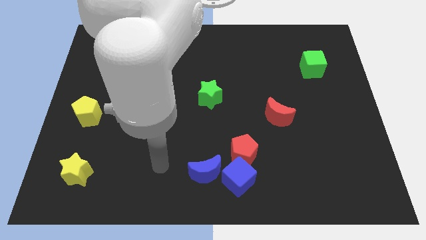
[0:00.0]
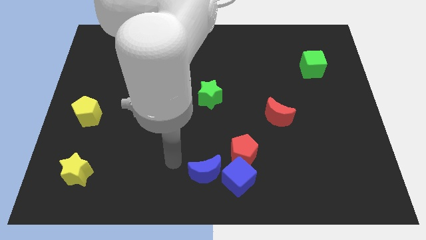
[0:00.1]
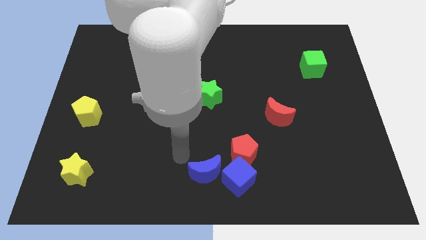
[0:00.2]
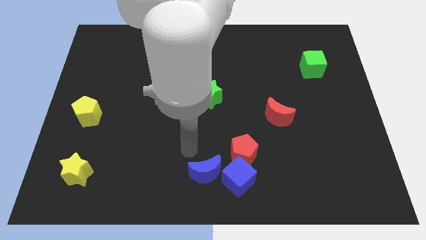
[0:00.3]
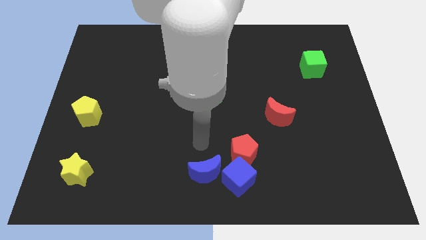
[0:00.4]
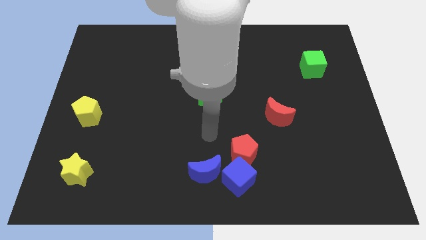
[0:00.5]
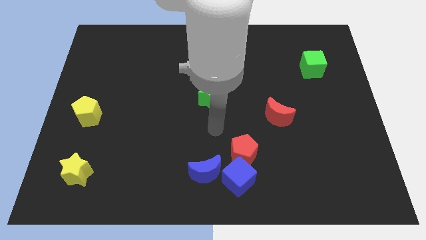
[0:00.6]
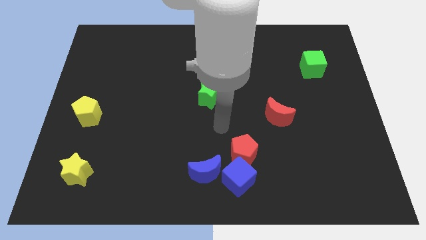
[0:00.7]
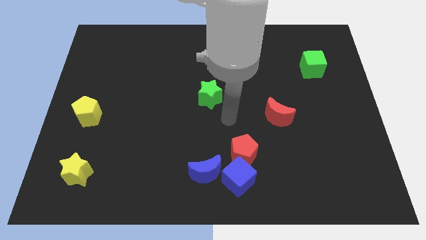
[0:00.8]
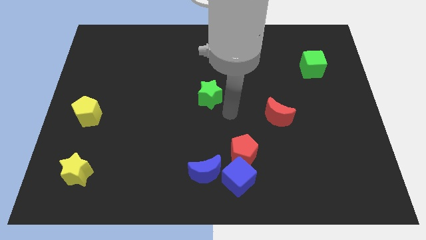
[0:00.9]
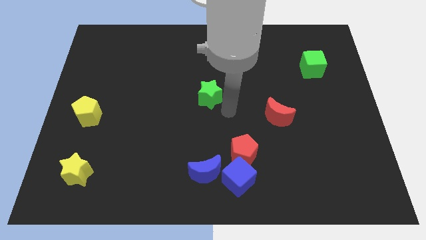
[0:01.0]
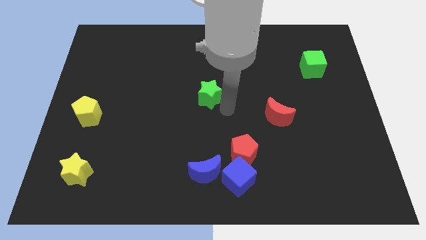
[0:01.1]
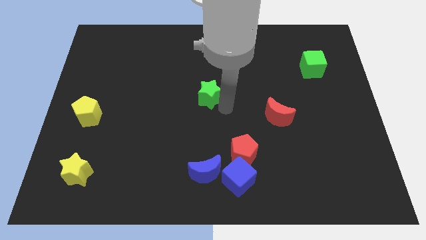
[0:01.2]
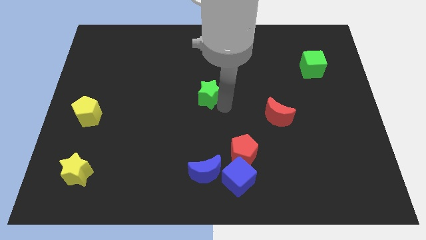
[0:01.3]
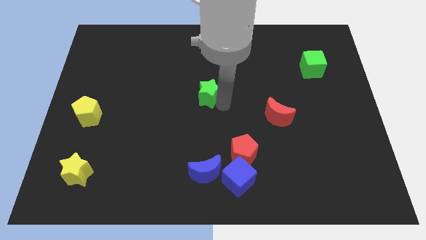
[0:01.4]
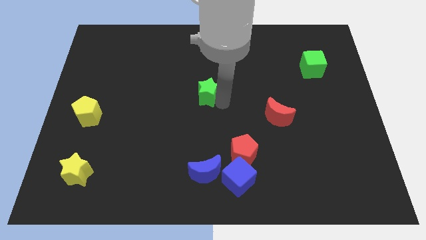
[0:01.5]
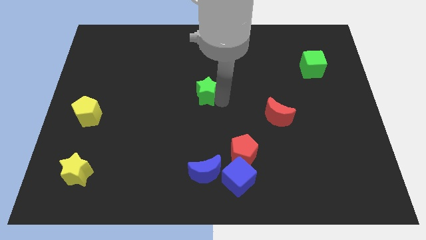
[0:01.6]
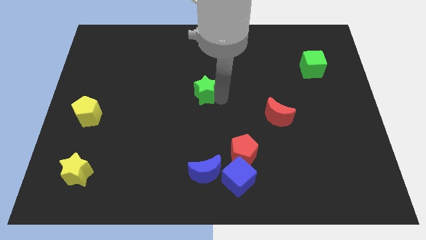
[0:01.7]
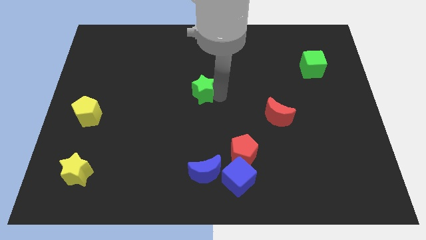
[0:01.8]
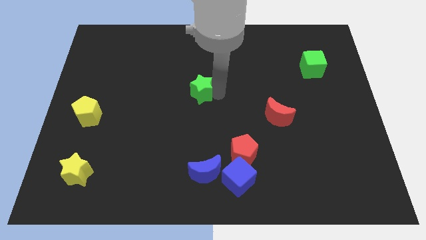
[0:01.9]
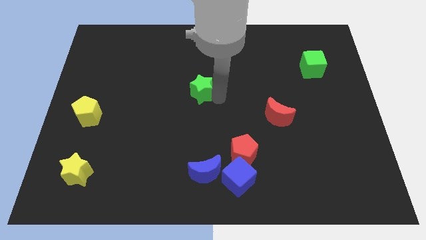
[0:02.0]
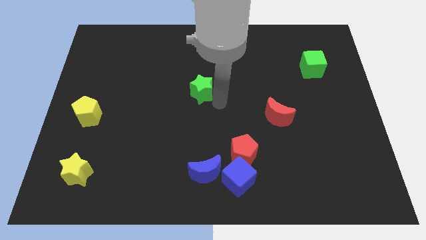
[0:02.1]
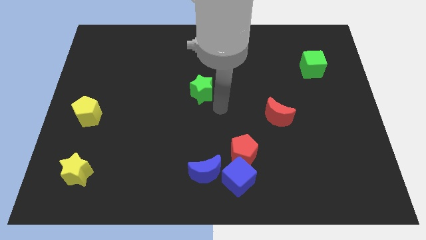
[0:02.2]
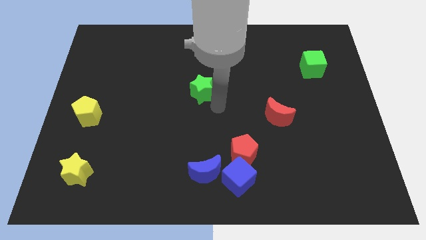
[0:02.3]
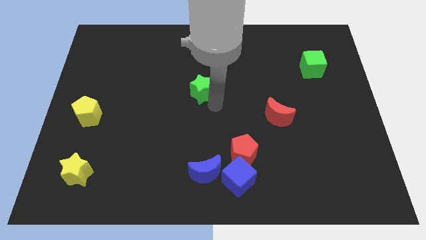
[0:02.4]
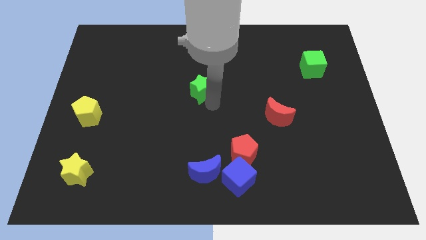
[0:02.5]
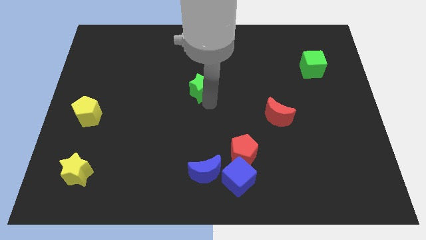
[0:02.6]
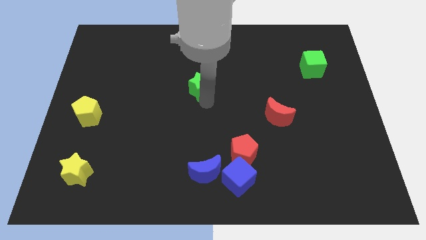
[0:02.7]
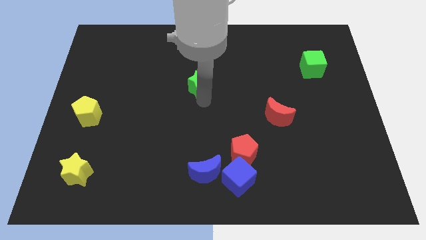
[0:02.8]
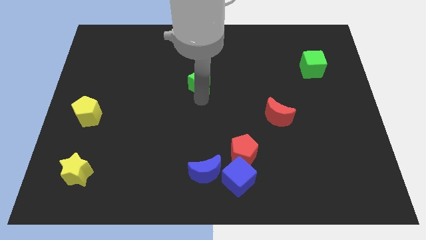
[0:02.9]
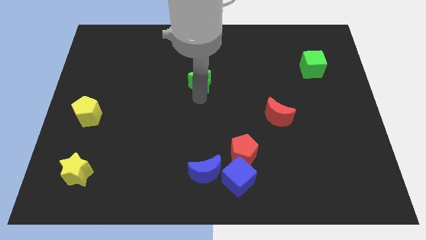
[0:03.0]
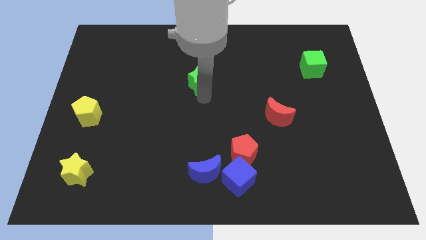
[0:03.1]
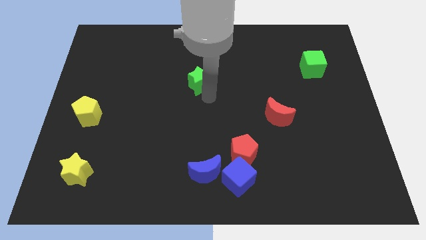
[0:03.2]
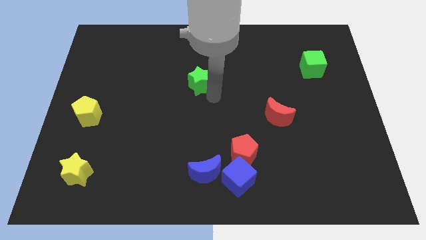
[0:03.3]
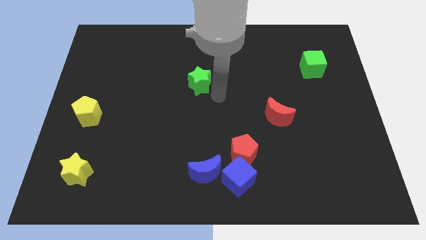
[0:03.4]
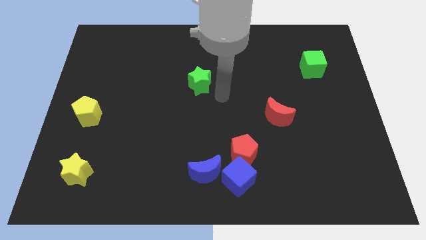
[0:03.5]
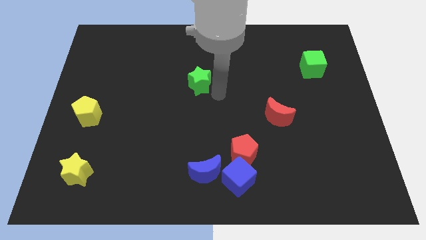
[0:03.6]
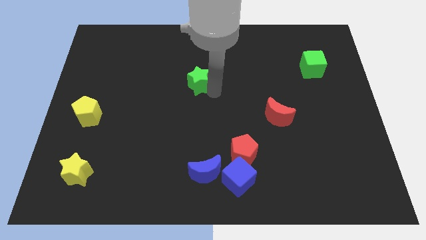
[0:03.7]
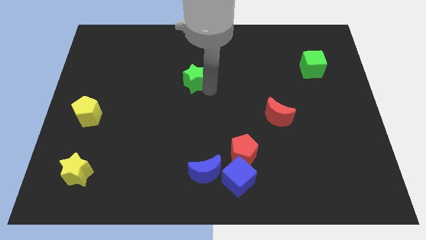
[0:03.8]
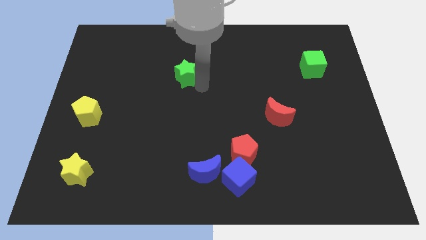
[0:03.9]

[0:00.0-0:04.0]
slightly push the green star up and then left

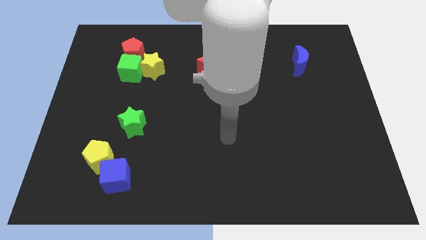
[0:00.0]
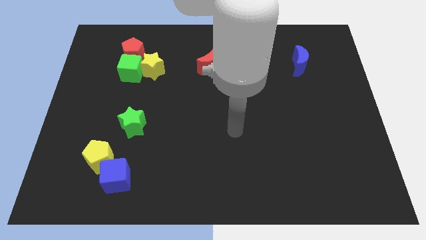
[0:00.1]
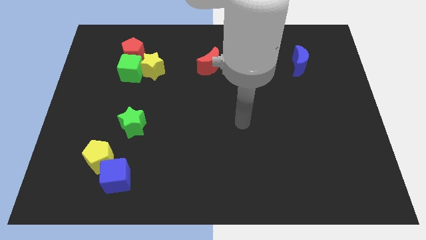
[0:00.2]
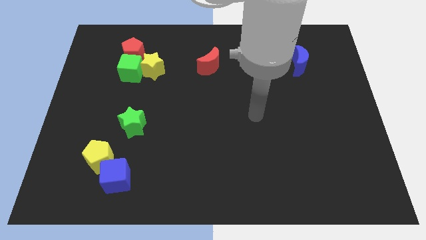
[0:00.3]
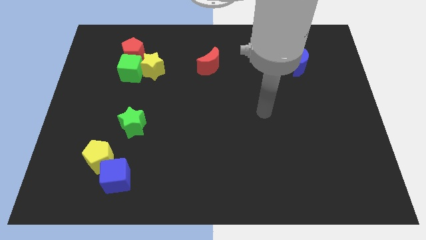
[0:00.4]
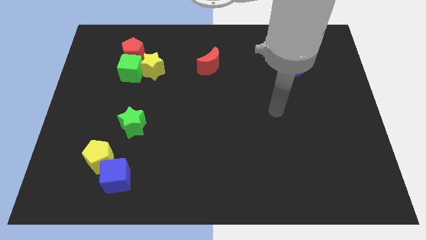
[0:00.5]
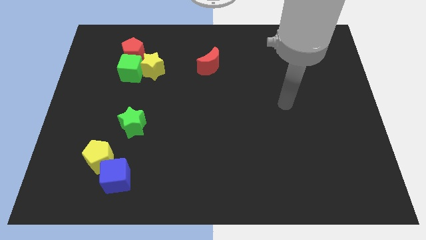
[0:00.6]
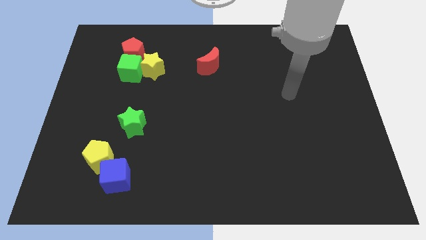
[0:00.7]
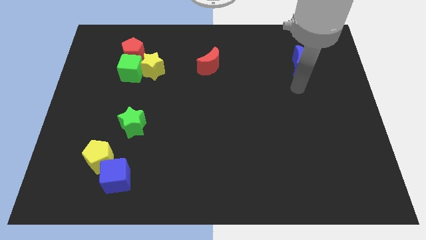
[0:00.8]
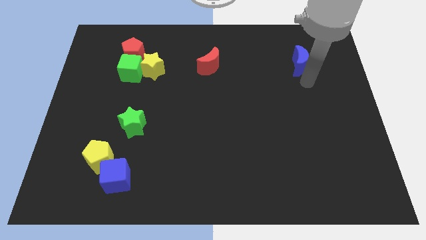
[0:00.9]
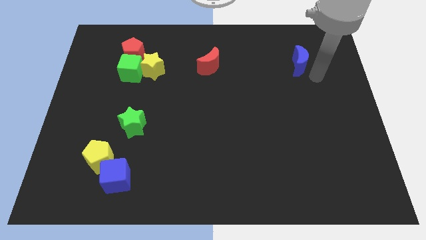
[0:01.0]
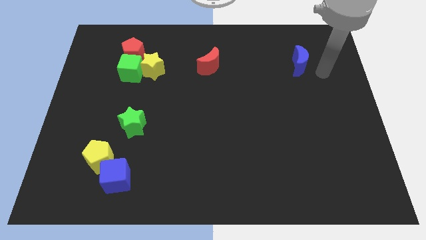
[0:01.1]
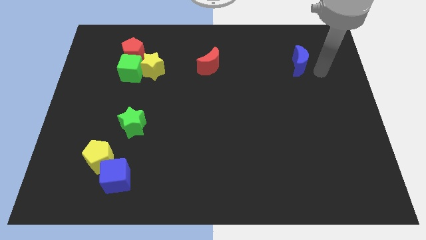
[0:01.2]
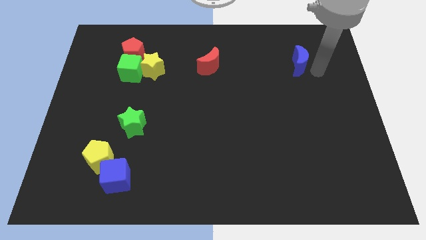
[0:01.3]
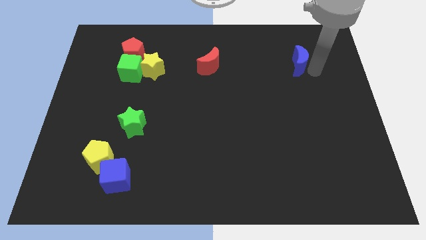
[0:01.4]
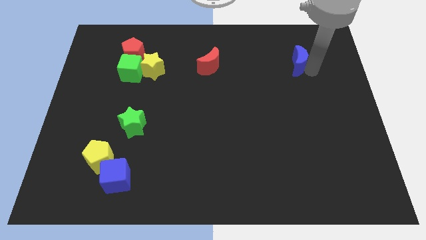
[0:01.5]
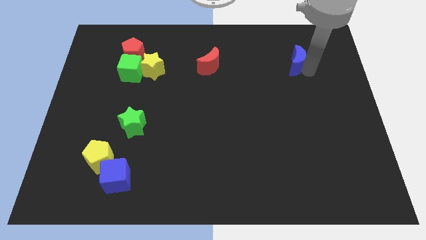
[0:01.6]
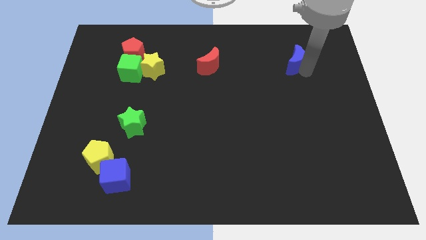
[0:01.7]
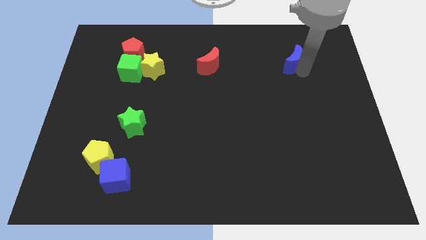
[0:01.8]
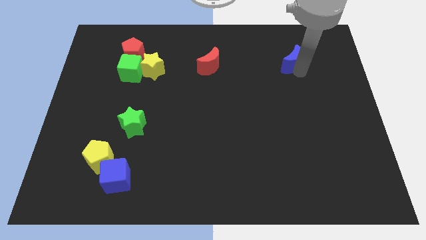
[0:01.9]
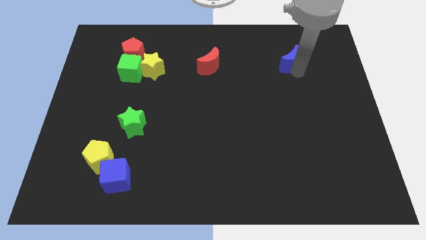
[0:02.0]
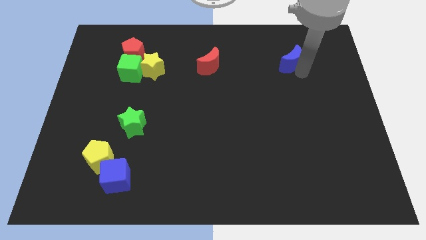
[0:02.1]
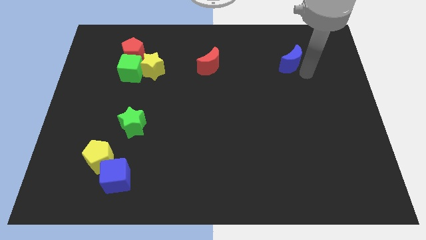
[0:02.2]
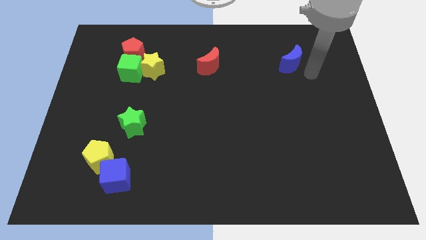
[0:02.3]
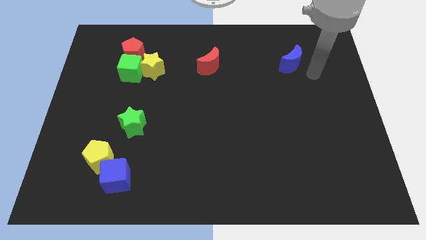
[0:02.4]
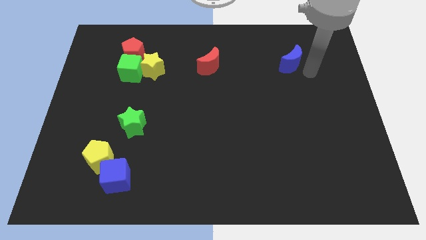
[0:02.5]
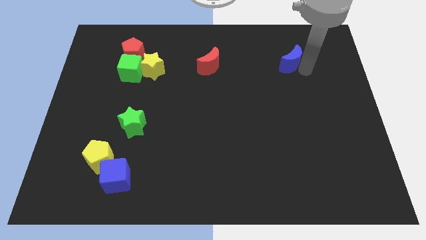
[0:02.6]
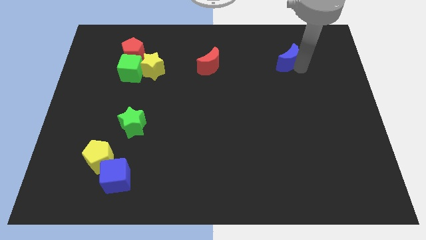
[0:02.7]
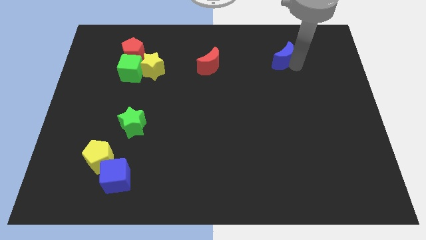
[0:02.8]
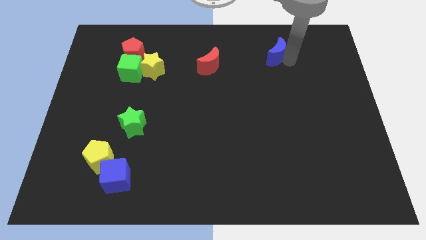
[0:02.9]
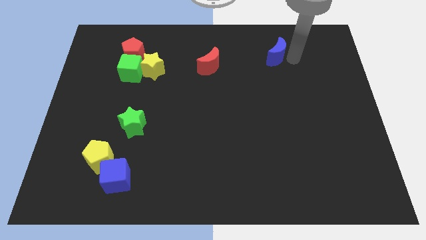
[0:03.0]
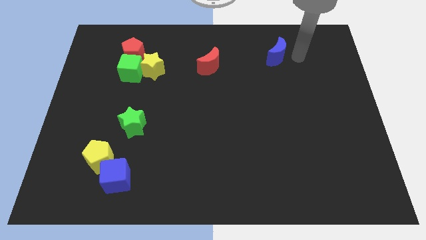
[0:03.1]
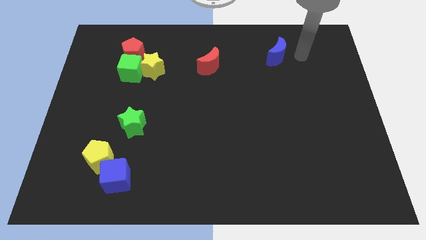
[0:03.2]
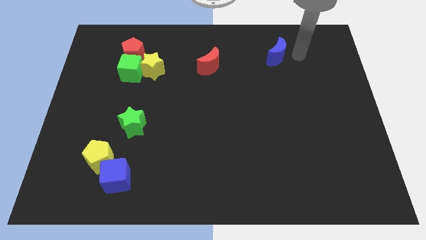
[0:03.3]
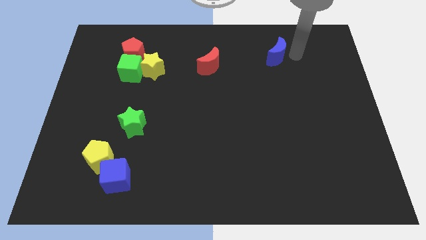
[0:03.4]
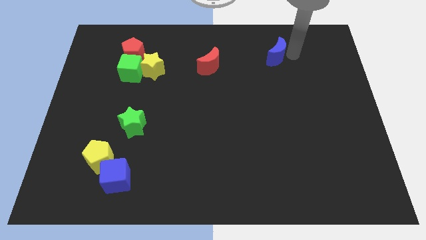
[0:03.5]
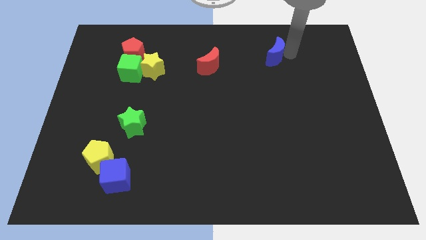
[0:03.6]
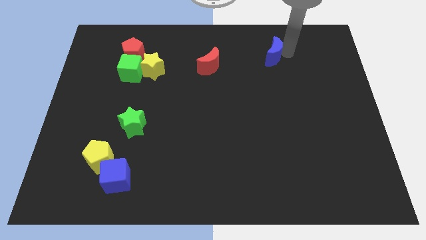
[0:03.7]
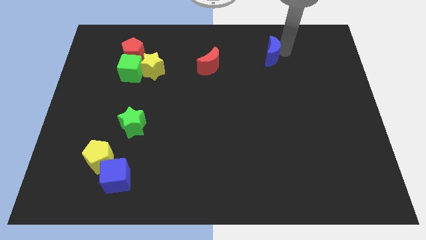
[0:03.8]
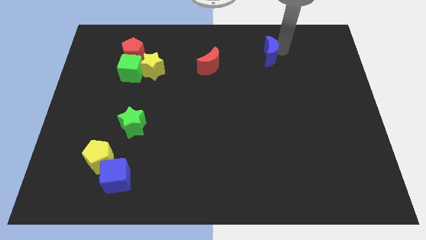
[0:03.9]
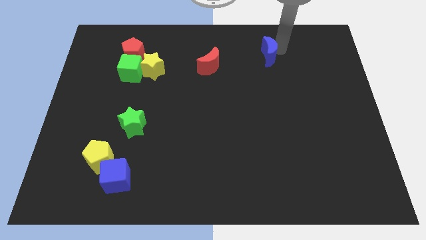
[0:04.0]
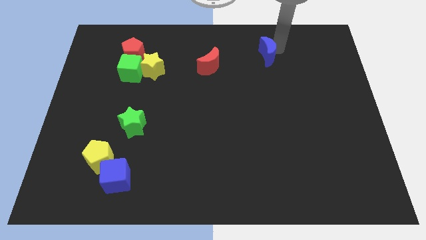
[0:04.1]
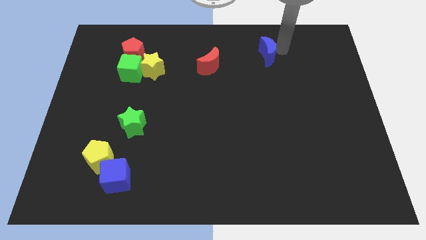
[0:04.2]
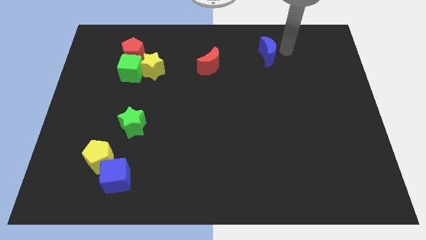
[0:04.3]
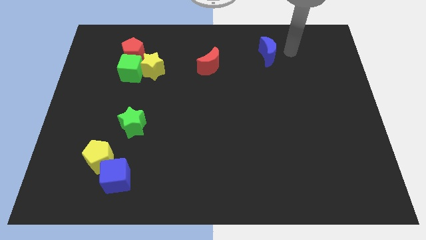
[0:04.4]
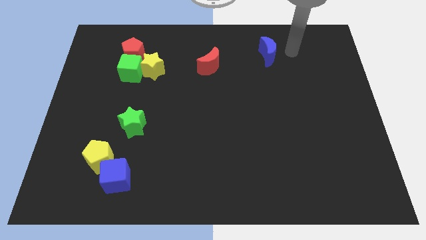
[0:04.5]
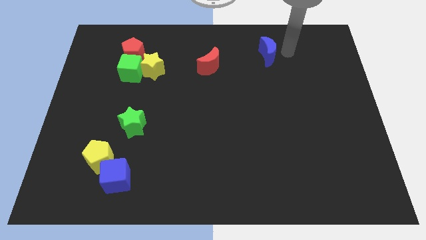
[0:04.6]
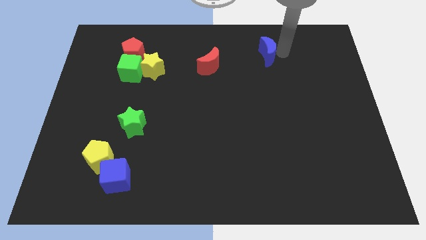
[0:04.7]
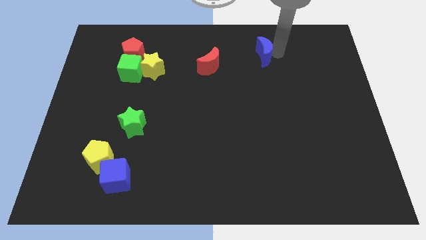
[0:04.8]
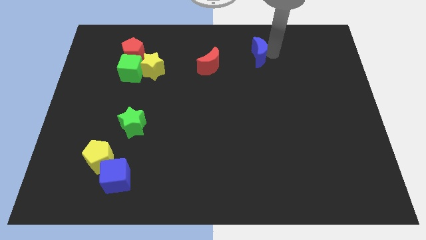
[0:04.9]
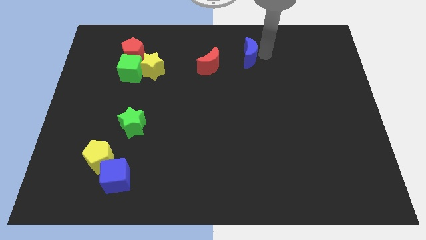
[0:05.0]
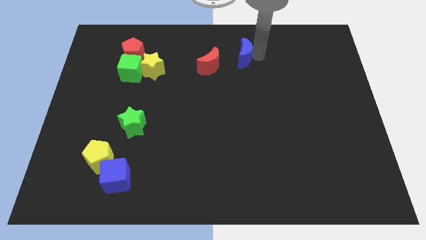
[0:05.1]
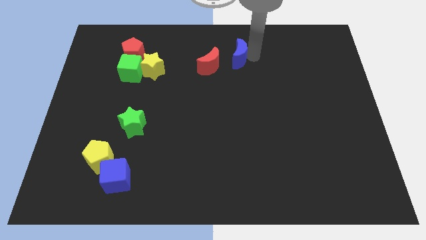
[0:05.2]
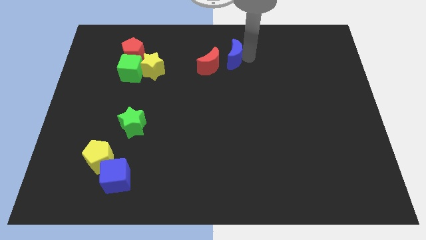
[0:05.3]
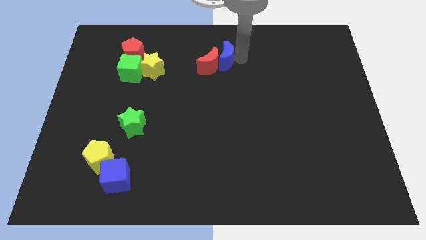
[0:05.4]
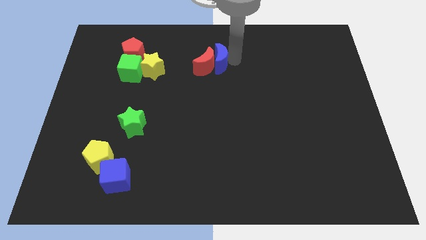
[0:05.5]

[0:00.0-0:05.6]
push the blue moon left
